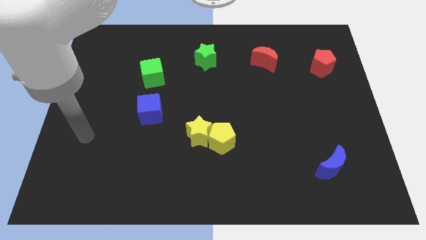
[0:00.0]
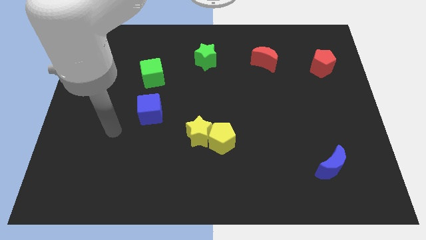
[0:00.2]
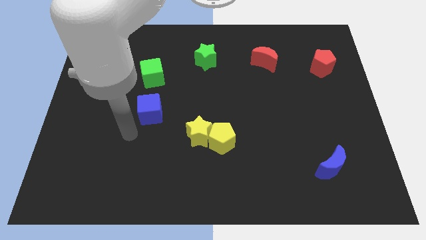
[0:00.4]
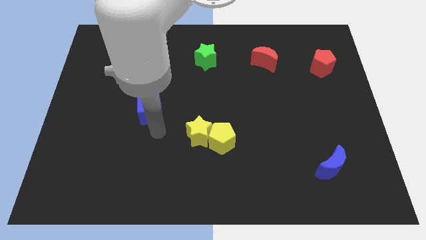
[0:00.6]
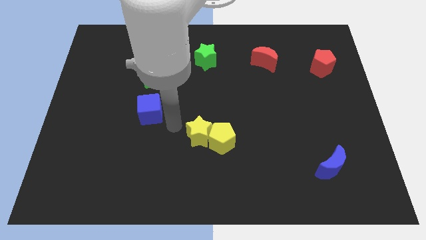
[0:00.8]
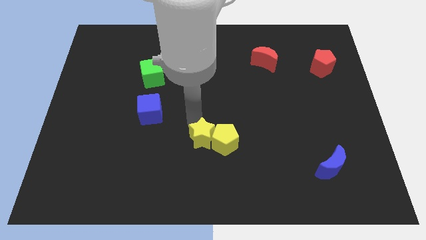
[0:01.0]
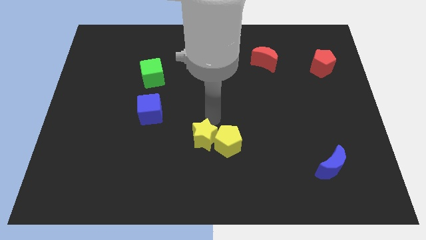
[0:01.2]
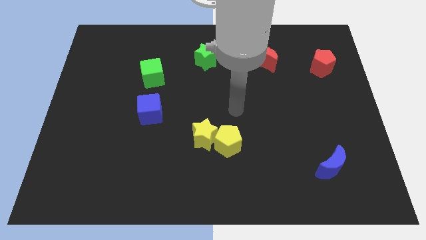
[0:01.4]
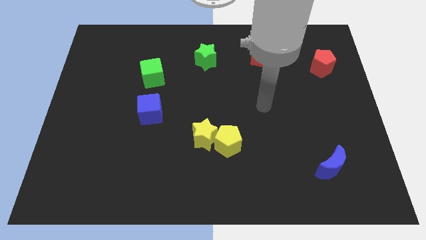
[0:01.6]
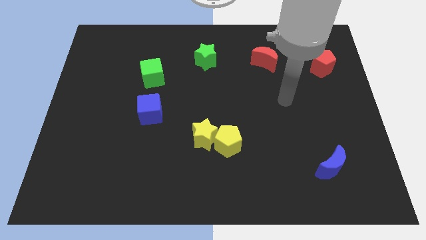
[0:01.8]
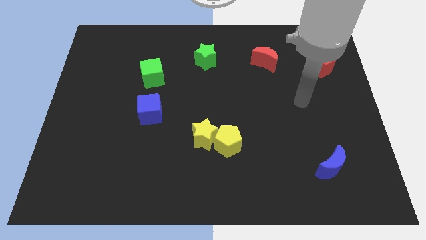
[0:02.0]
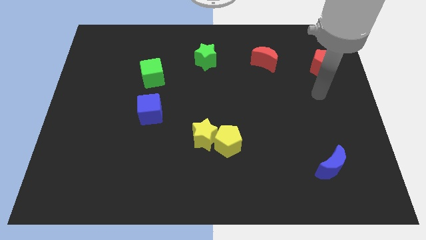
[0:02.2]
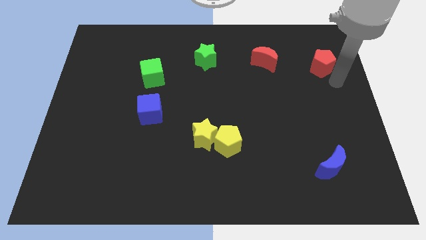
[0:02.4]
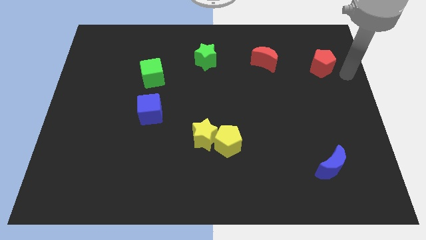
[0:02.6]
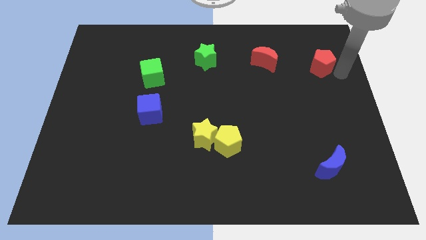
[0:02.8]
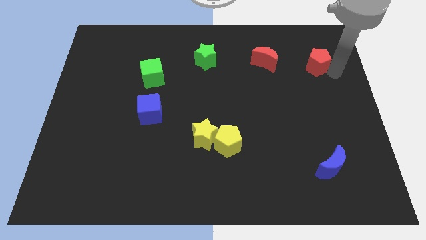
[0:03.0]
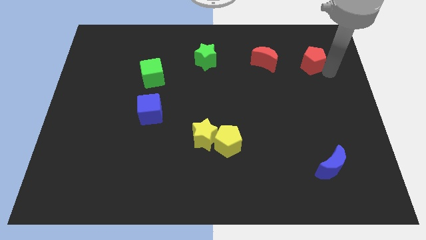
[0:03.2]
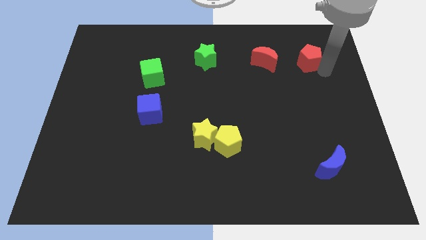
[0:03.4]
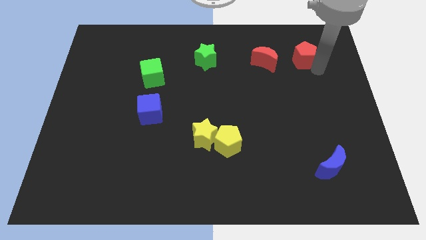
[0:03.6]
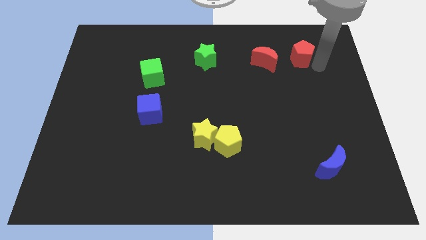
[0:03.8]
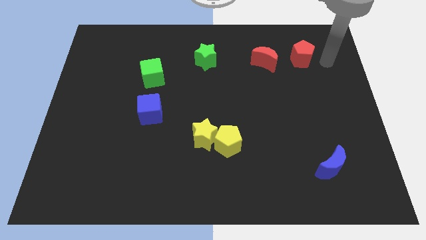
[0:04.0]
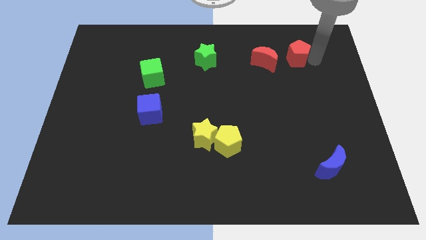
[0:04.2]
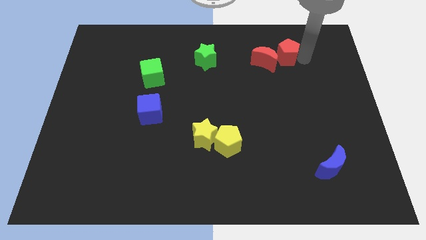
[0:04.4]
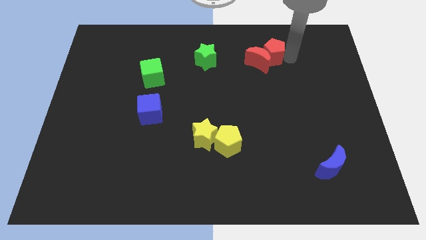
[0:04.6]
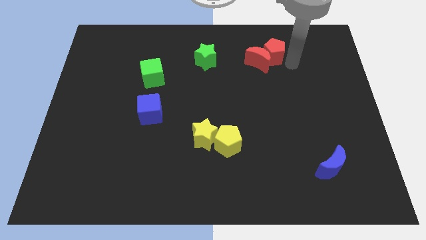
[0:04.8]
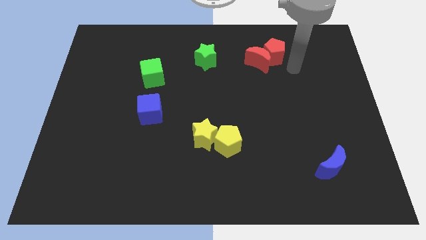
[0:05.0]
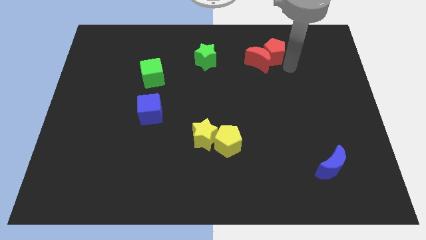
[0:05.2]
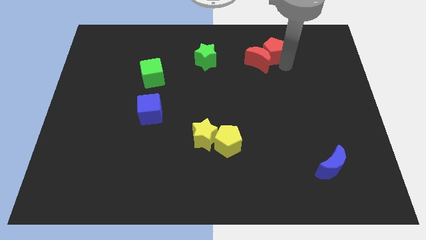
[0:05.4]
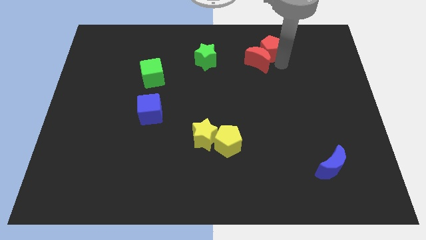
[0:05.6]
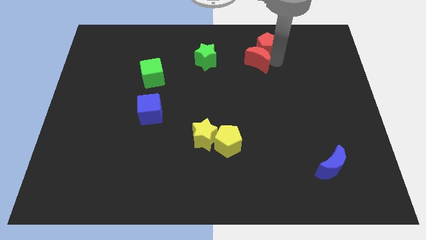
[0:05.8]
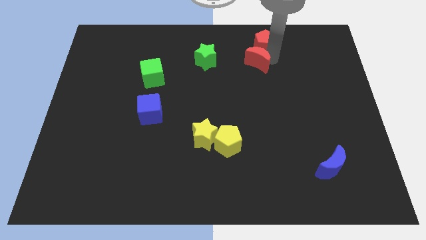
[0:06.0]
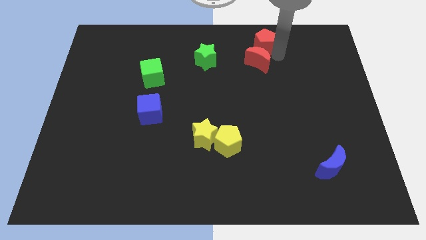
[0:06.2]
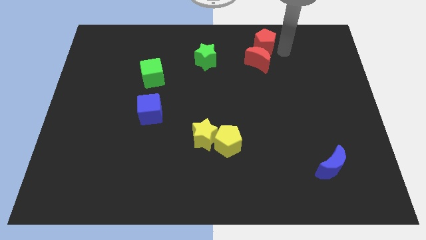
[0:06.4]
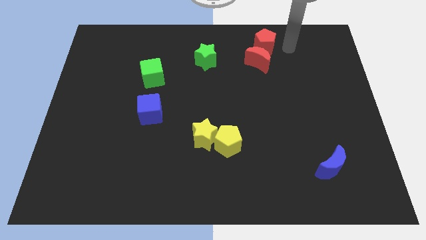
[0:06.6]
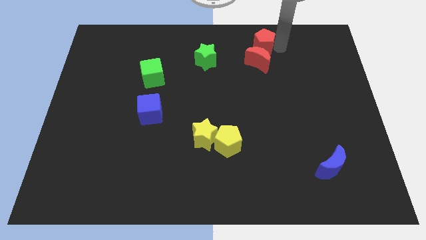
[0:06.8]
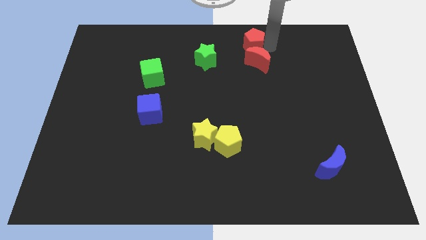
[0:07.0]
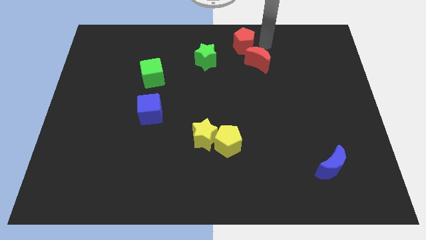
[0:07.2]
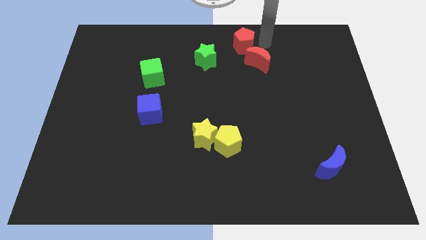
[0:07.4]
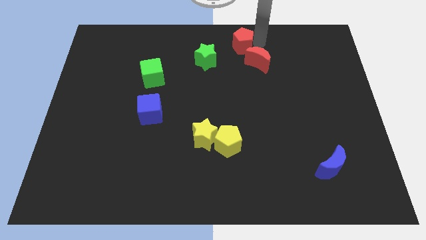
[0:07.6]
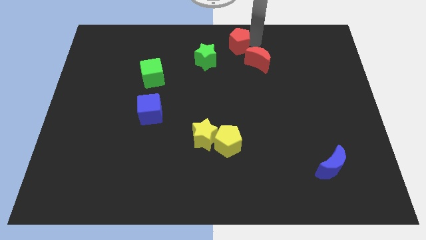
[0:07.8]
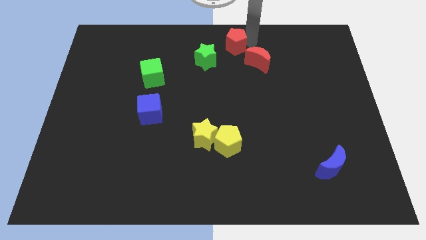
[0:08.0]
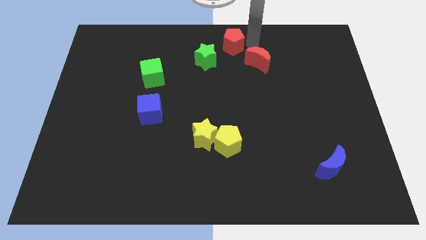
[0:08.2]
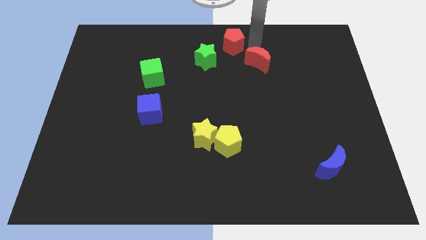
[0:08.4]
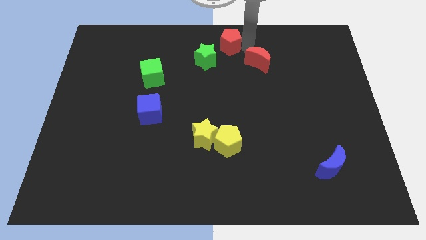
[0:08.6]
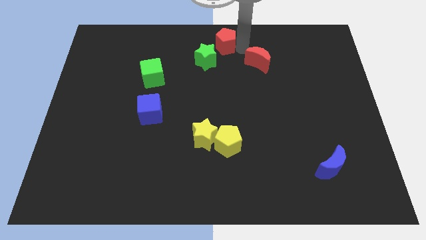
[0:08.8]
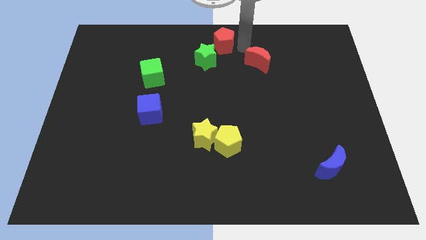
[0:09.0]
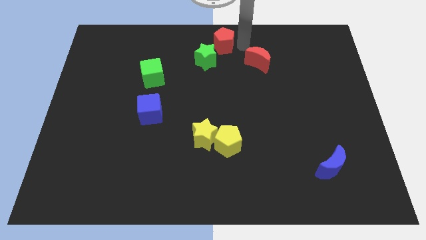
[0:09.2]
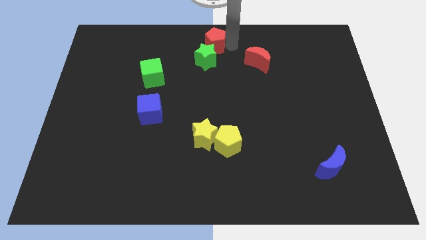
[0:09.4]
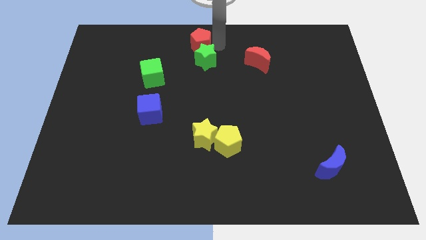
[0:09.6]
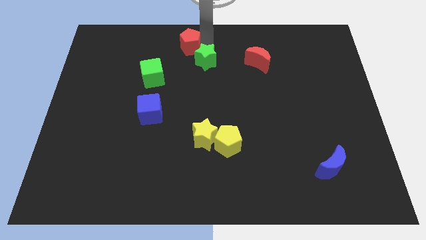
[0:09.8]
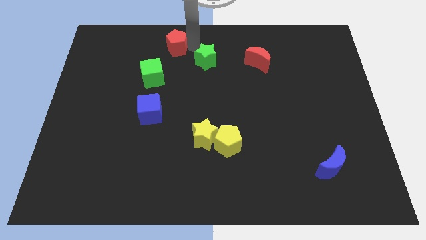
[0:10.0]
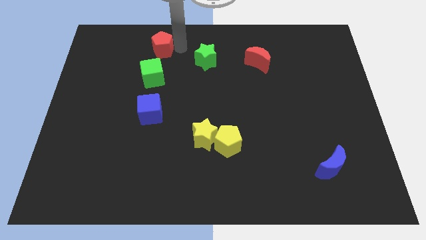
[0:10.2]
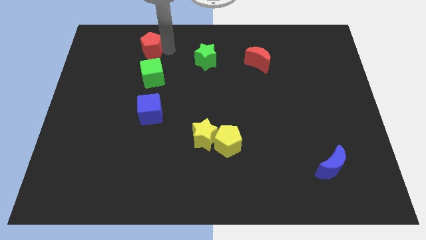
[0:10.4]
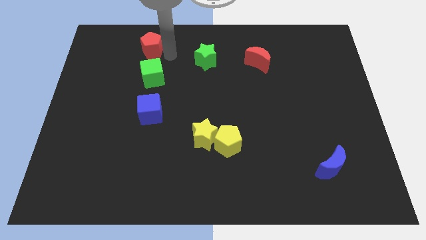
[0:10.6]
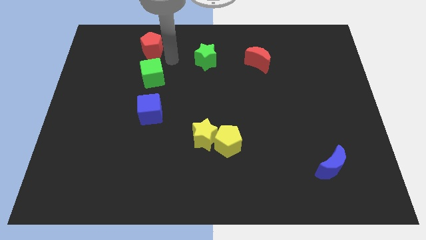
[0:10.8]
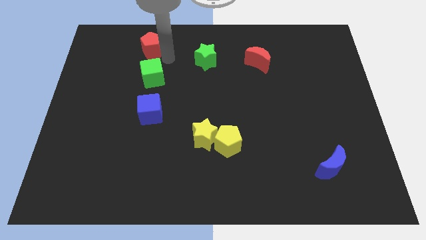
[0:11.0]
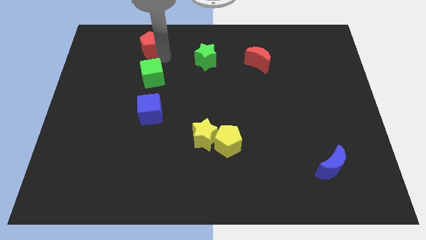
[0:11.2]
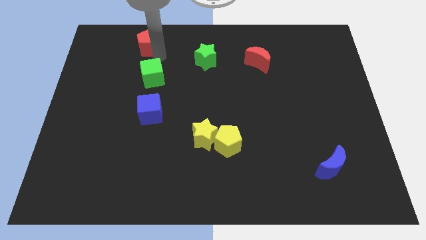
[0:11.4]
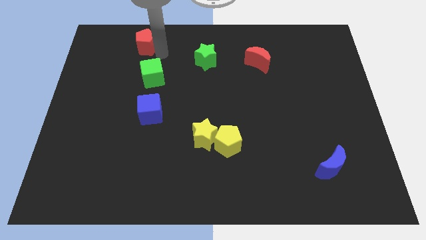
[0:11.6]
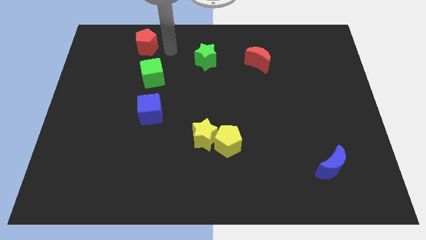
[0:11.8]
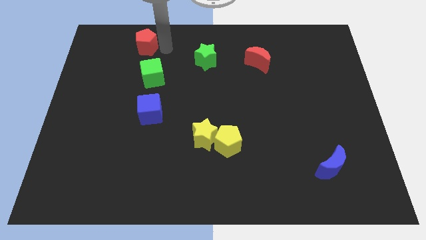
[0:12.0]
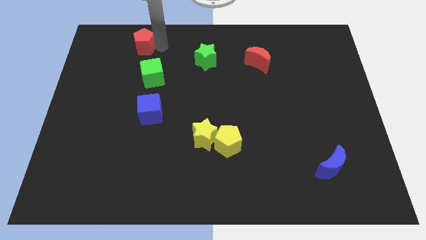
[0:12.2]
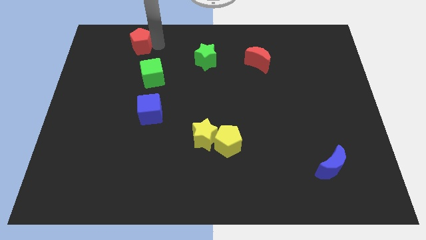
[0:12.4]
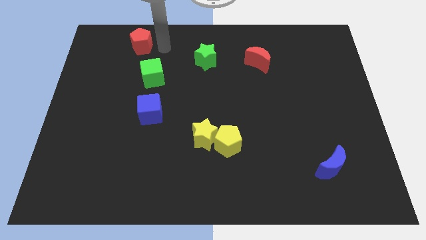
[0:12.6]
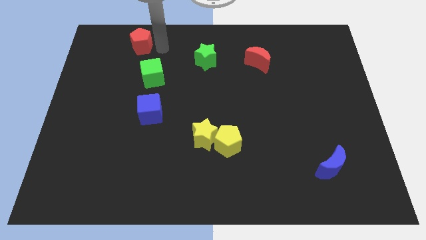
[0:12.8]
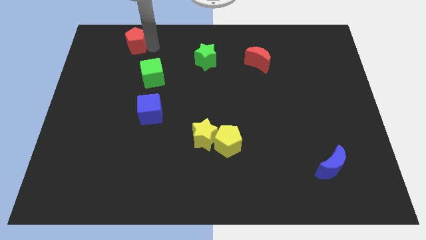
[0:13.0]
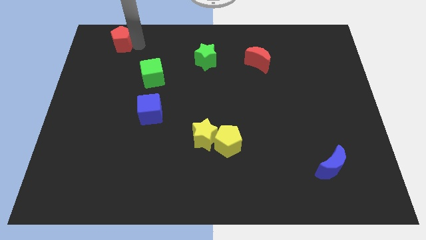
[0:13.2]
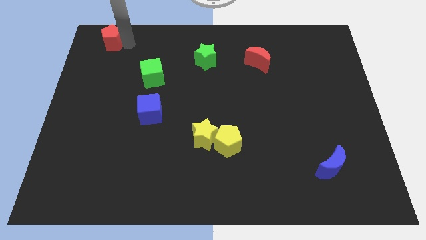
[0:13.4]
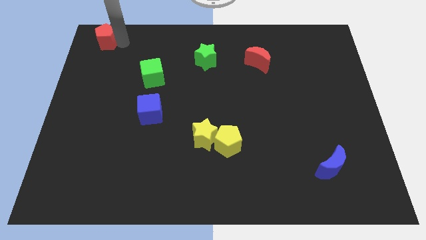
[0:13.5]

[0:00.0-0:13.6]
slide the red pentagon to the top left of the board
